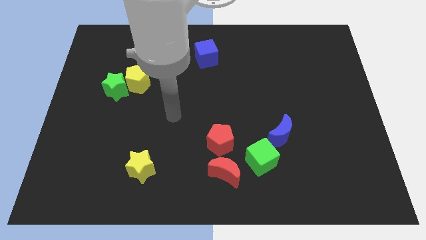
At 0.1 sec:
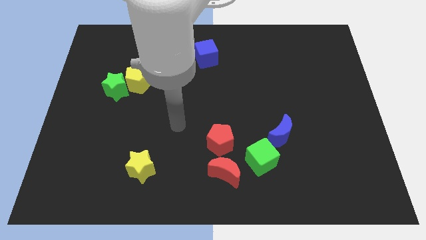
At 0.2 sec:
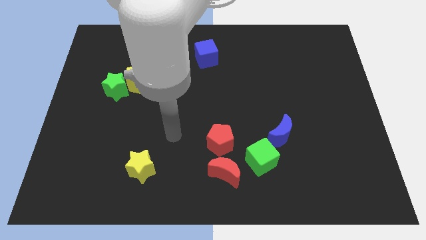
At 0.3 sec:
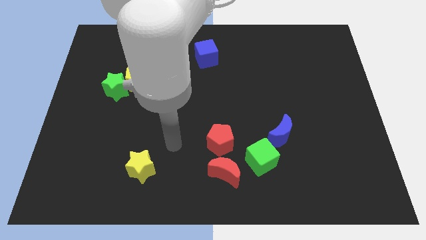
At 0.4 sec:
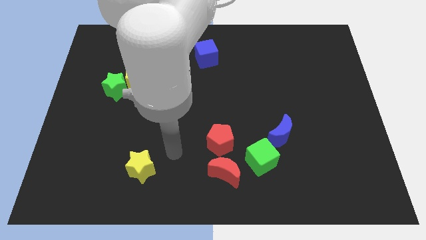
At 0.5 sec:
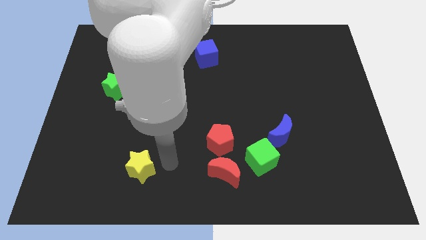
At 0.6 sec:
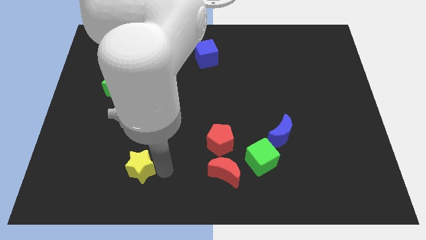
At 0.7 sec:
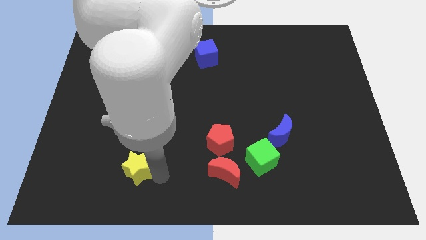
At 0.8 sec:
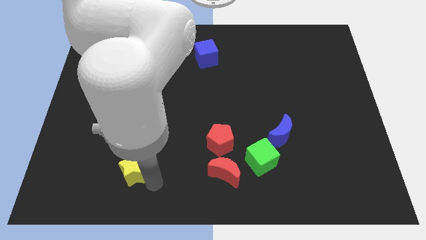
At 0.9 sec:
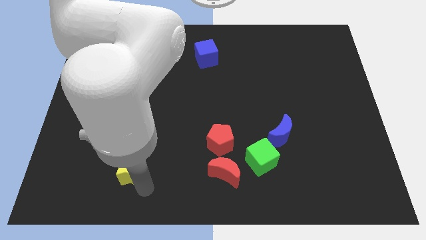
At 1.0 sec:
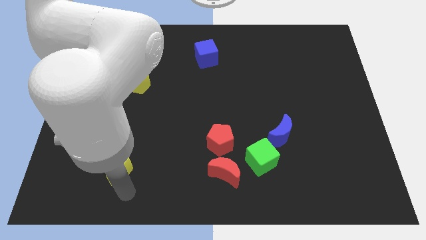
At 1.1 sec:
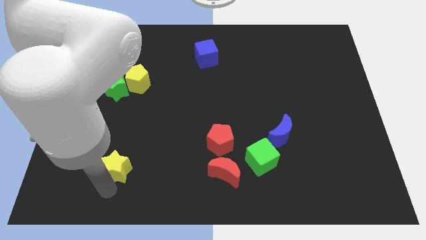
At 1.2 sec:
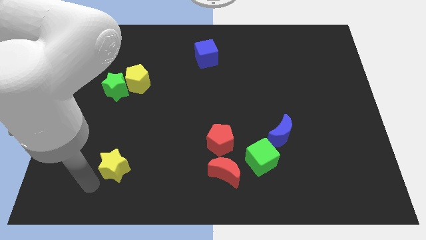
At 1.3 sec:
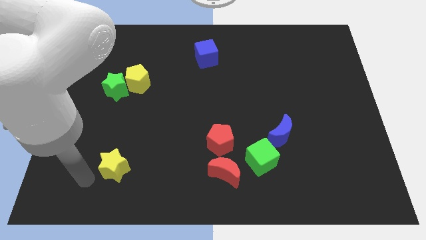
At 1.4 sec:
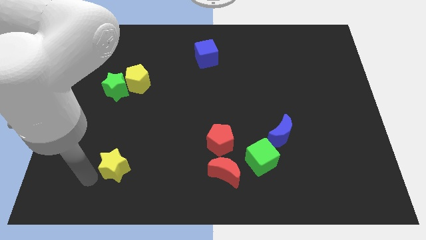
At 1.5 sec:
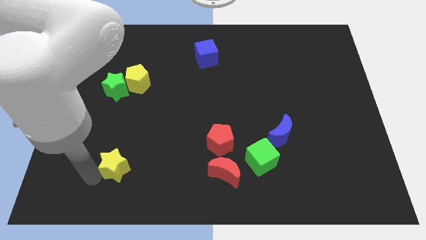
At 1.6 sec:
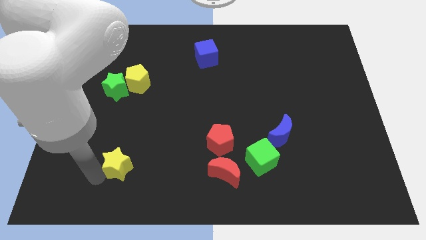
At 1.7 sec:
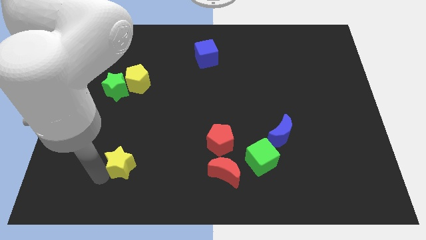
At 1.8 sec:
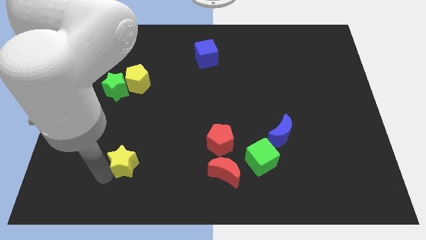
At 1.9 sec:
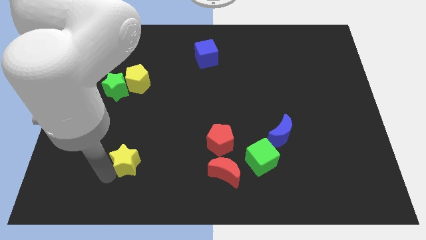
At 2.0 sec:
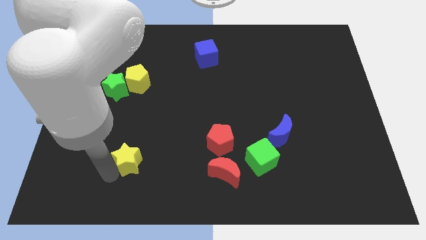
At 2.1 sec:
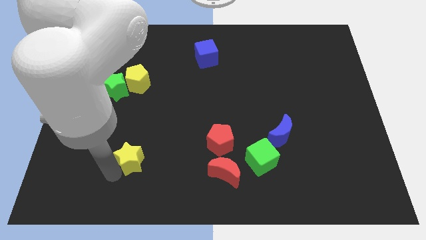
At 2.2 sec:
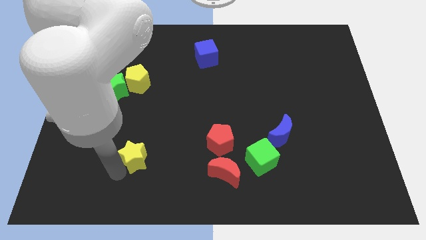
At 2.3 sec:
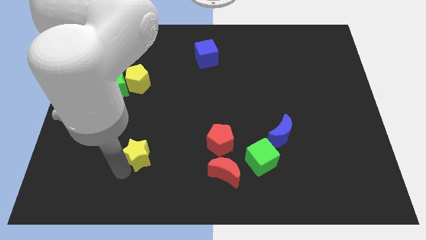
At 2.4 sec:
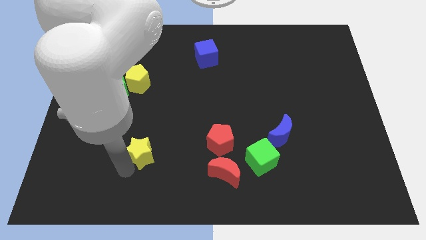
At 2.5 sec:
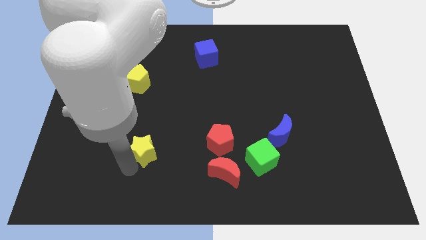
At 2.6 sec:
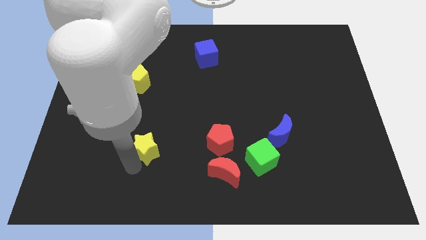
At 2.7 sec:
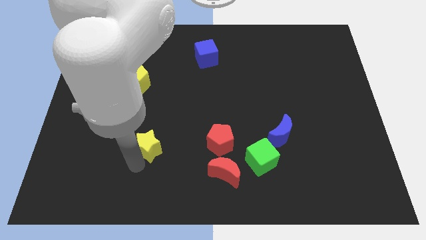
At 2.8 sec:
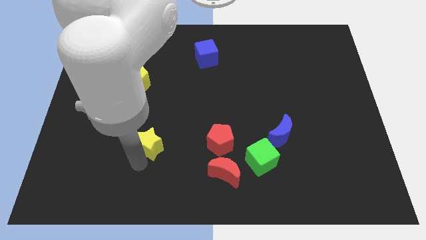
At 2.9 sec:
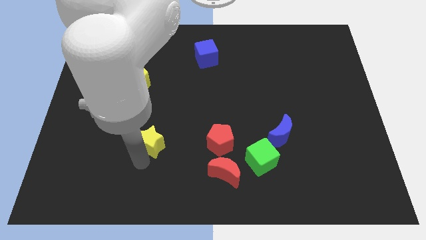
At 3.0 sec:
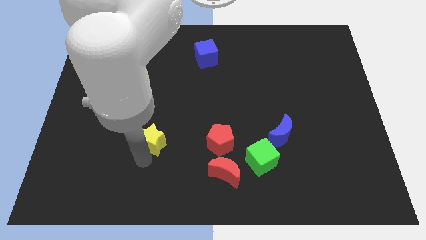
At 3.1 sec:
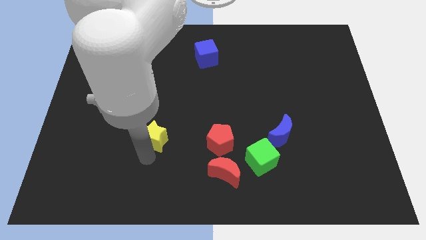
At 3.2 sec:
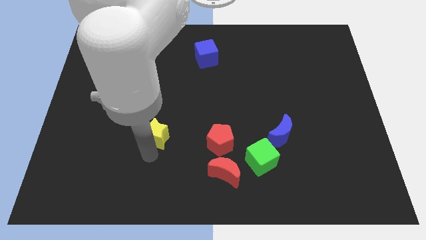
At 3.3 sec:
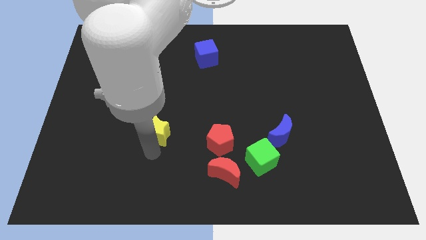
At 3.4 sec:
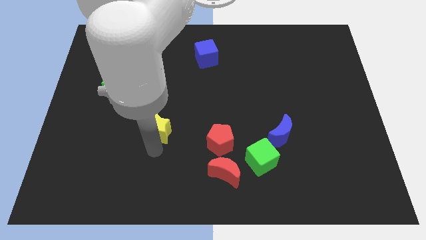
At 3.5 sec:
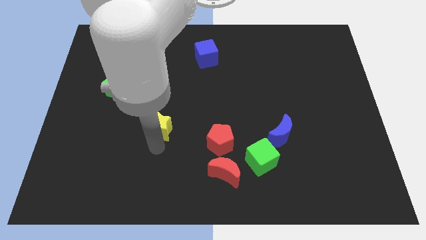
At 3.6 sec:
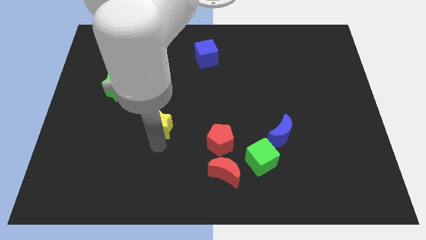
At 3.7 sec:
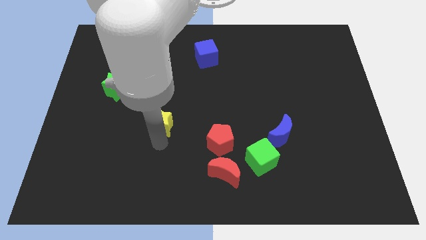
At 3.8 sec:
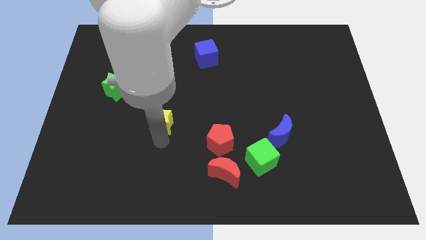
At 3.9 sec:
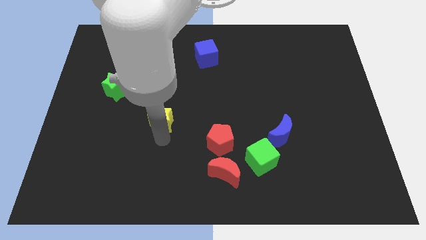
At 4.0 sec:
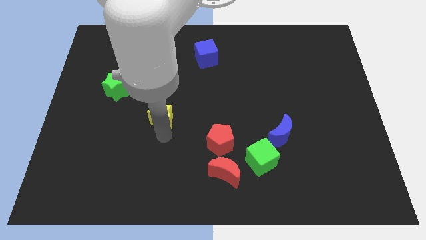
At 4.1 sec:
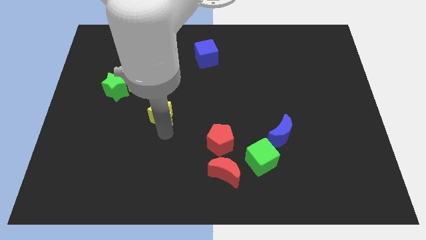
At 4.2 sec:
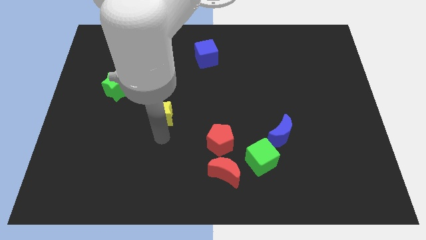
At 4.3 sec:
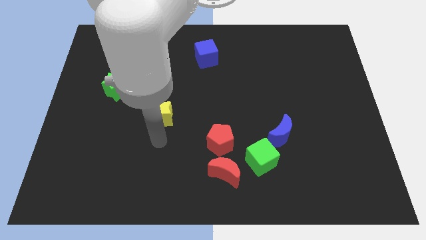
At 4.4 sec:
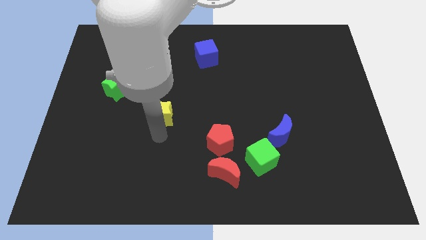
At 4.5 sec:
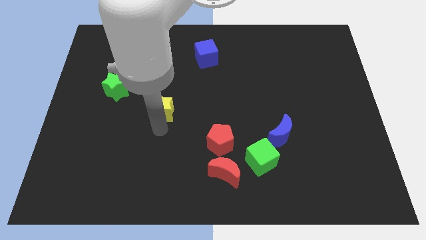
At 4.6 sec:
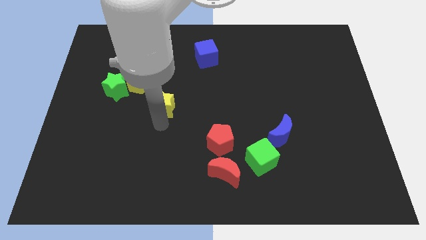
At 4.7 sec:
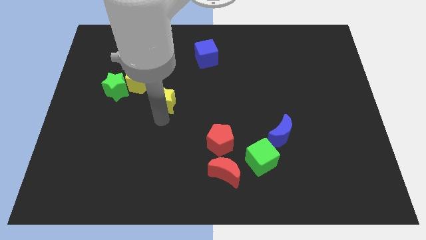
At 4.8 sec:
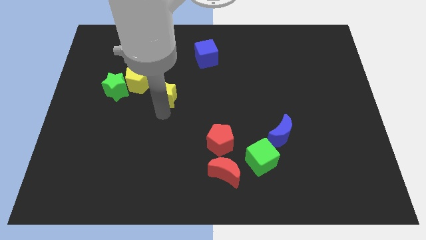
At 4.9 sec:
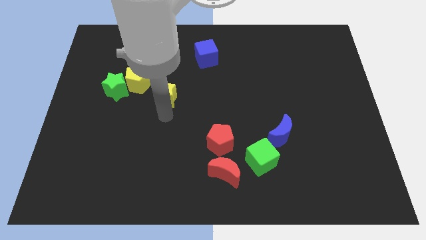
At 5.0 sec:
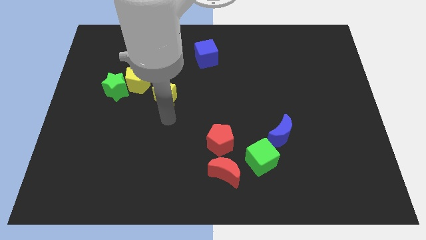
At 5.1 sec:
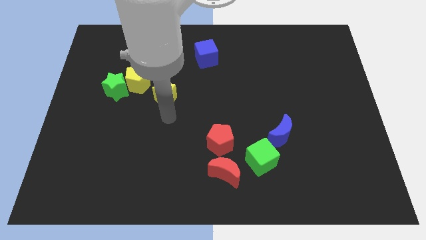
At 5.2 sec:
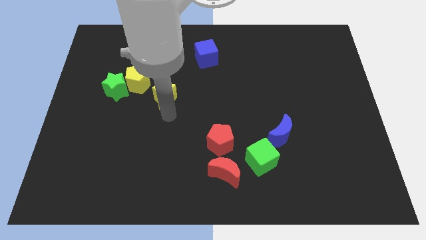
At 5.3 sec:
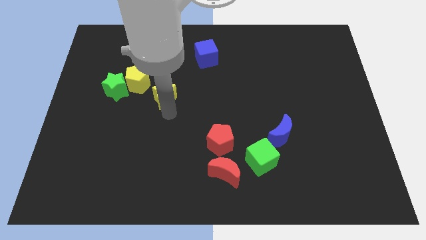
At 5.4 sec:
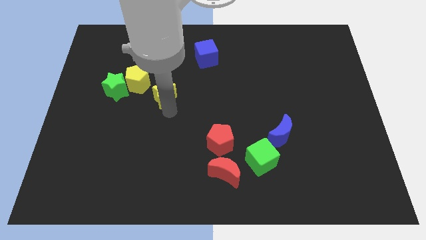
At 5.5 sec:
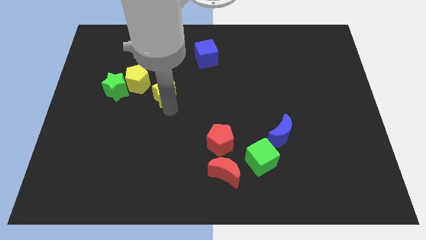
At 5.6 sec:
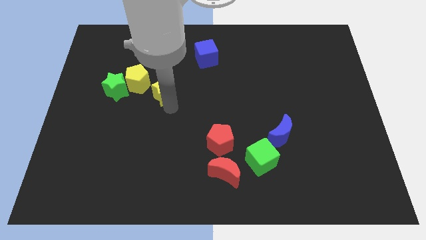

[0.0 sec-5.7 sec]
push the yellow star up

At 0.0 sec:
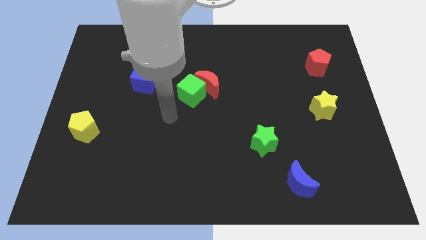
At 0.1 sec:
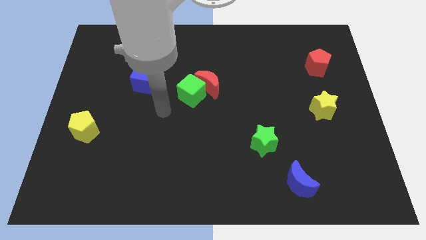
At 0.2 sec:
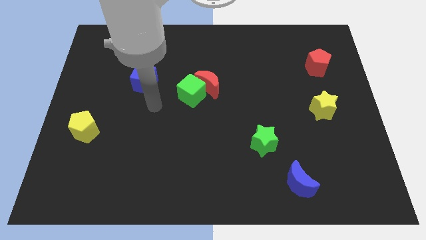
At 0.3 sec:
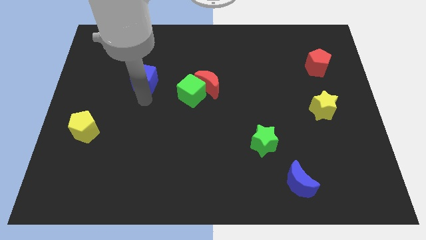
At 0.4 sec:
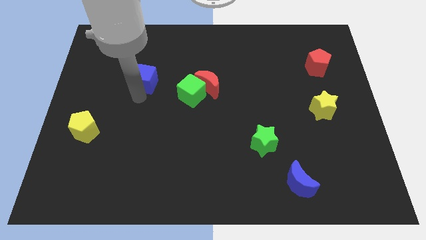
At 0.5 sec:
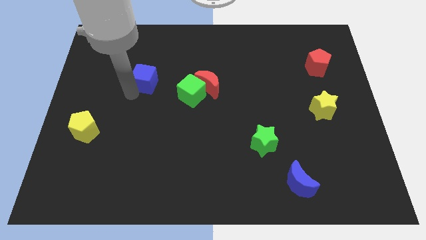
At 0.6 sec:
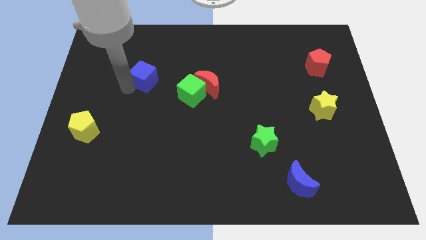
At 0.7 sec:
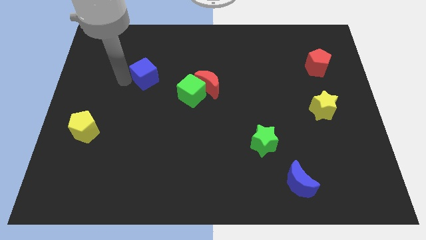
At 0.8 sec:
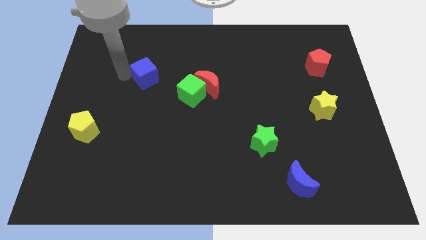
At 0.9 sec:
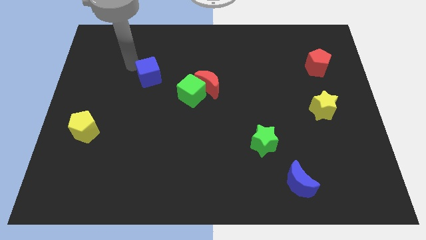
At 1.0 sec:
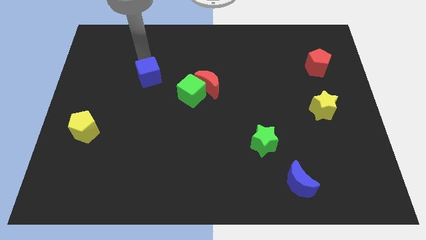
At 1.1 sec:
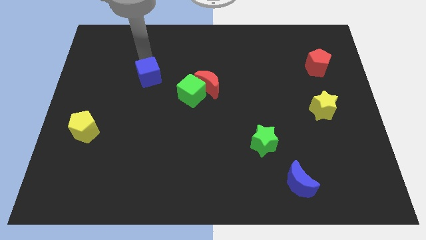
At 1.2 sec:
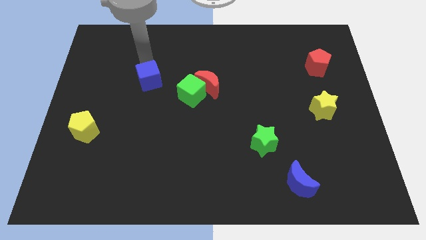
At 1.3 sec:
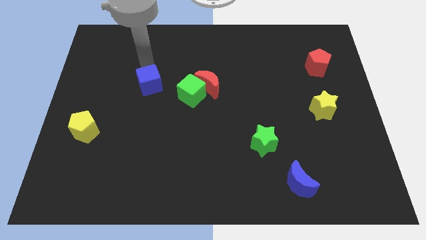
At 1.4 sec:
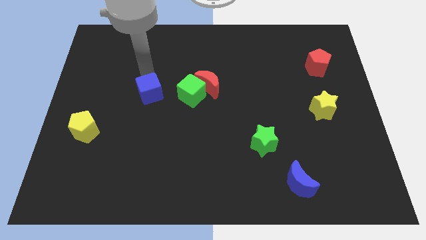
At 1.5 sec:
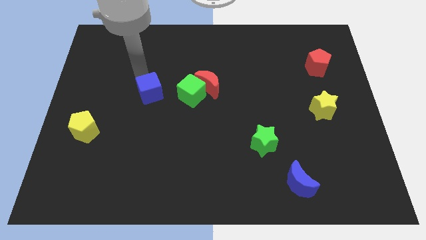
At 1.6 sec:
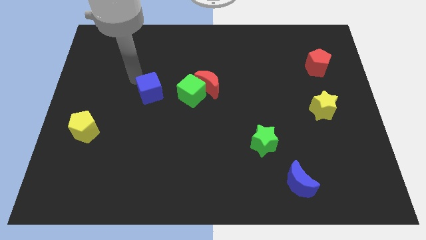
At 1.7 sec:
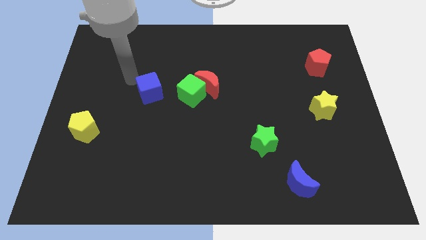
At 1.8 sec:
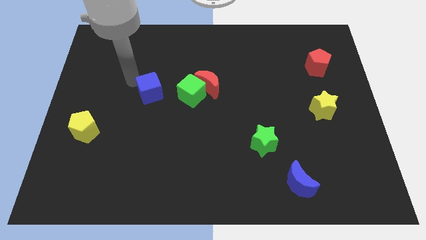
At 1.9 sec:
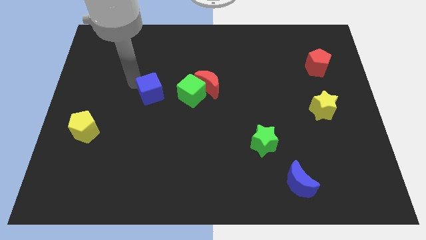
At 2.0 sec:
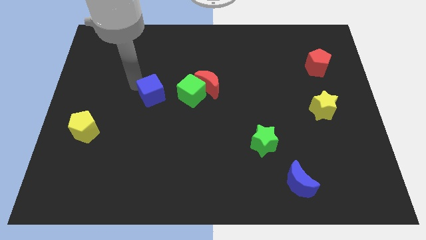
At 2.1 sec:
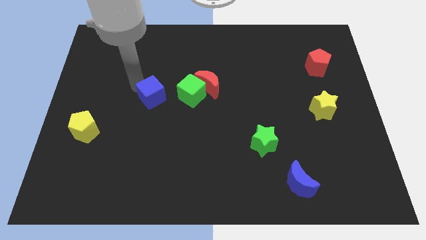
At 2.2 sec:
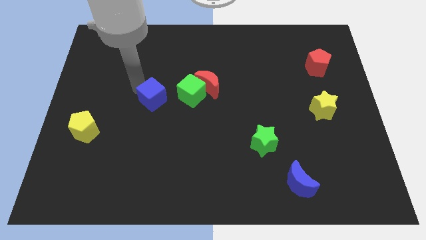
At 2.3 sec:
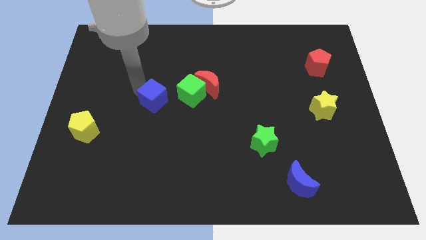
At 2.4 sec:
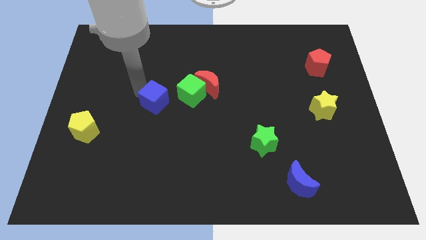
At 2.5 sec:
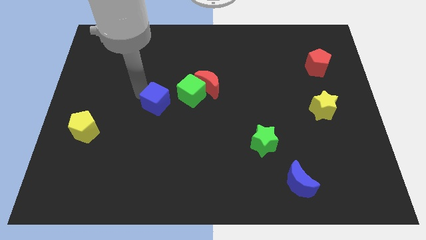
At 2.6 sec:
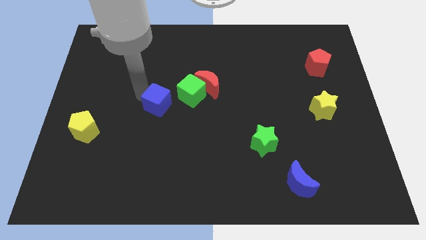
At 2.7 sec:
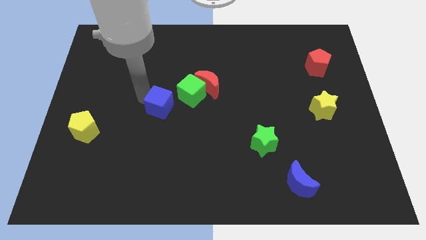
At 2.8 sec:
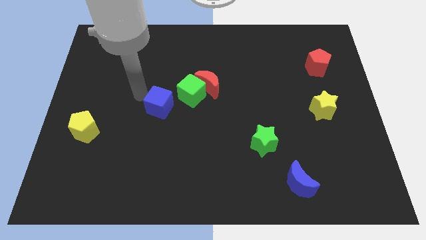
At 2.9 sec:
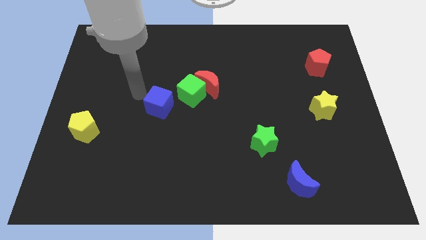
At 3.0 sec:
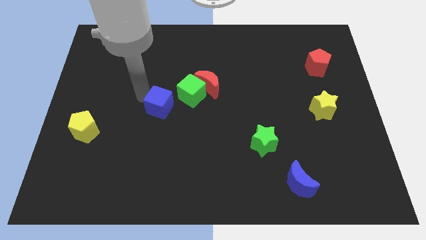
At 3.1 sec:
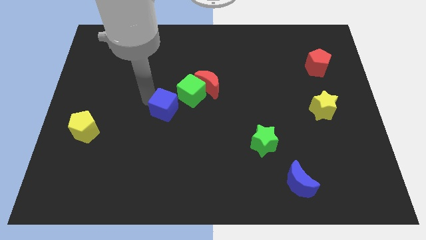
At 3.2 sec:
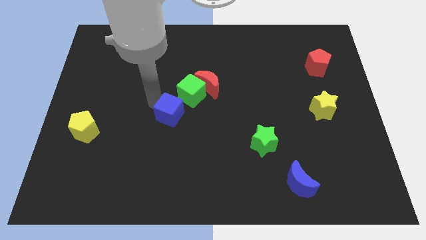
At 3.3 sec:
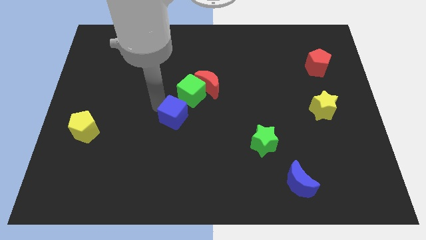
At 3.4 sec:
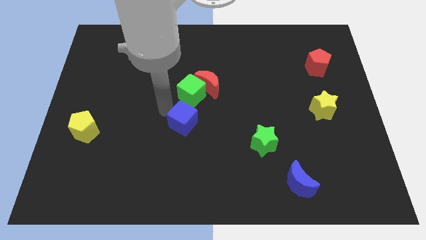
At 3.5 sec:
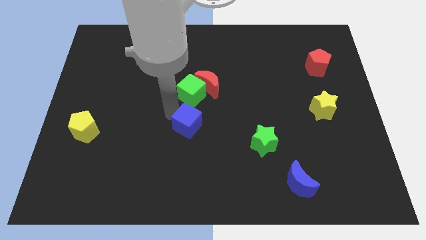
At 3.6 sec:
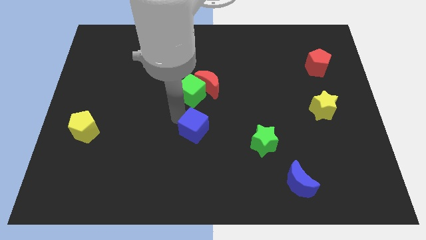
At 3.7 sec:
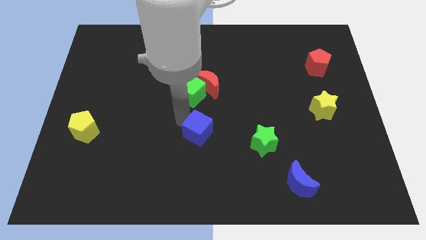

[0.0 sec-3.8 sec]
move the blue cube downwards and to the right diagonally
